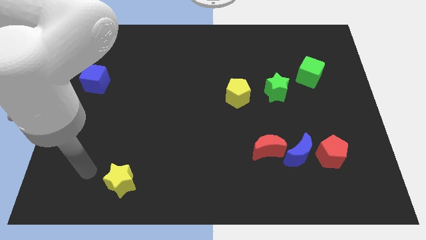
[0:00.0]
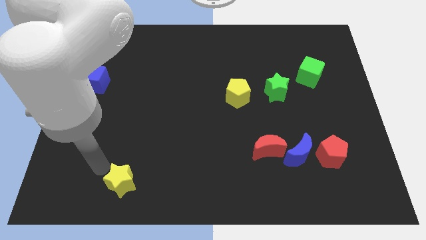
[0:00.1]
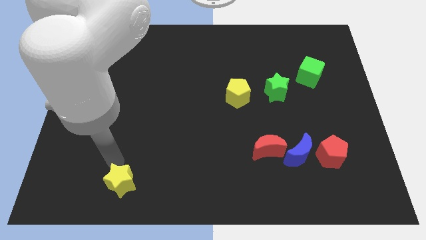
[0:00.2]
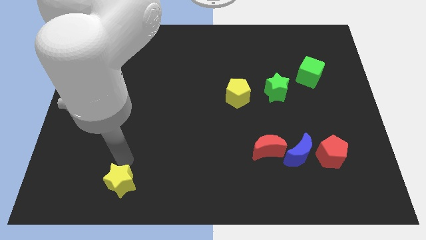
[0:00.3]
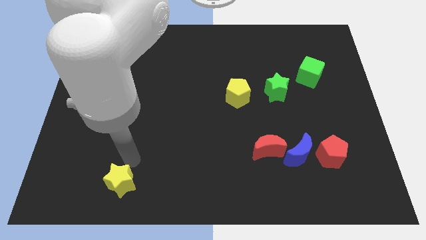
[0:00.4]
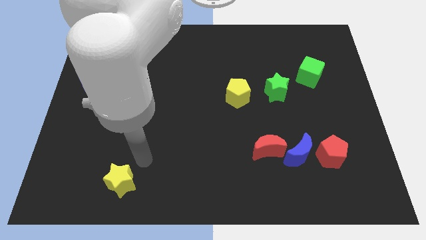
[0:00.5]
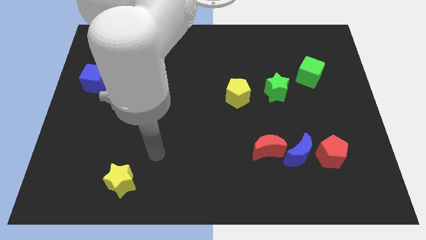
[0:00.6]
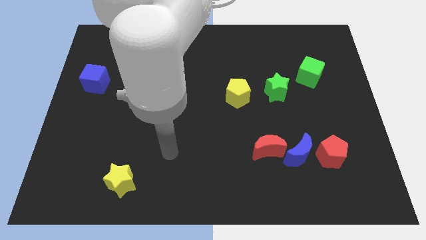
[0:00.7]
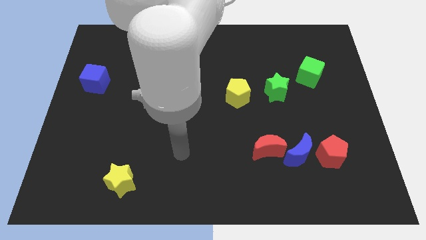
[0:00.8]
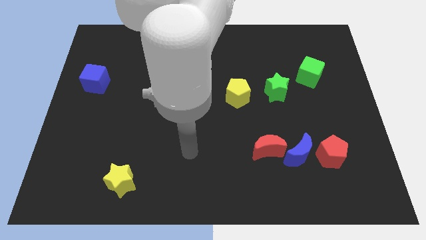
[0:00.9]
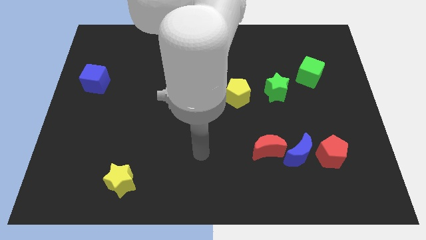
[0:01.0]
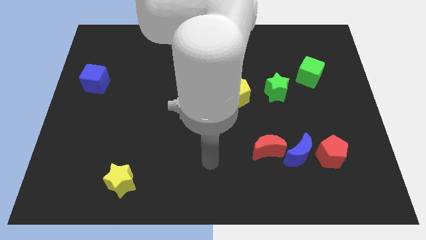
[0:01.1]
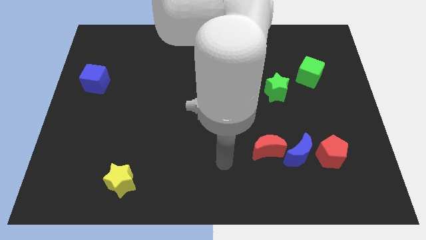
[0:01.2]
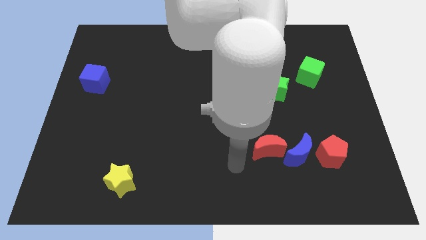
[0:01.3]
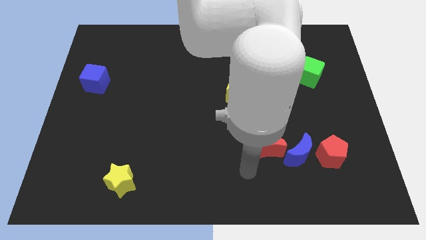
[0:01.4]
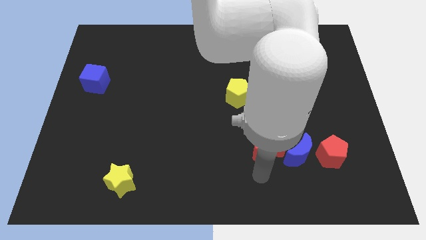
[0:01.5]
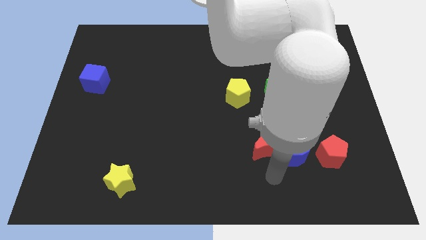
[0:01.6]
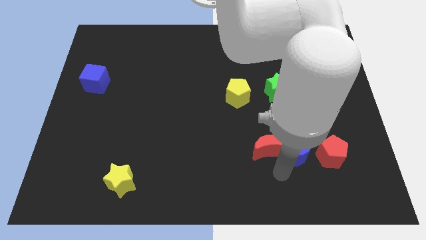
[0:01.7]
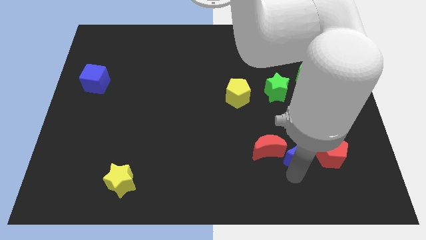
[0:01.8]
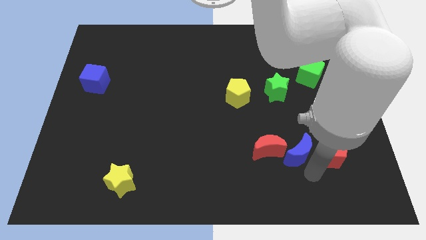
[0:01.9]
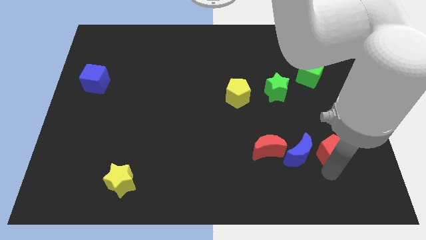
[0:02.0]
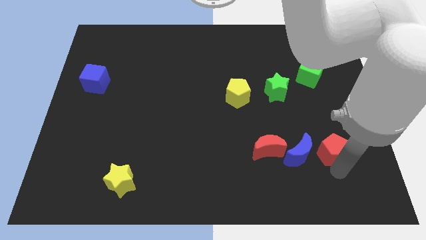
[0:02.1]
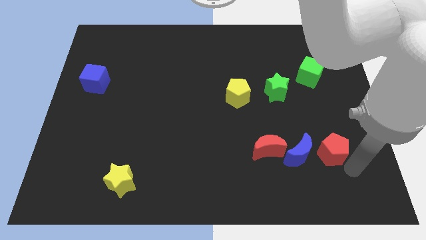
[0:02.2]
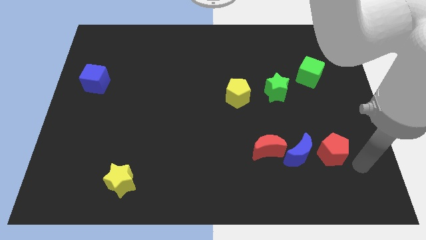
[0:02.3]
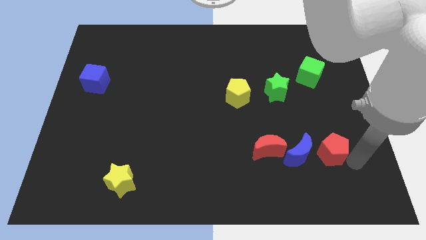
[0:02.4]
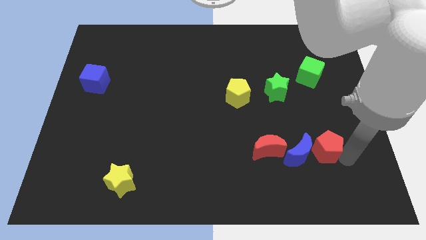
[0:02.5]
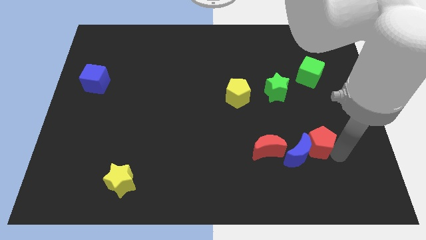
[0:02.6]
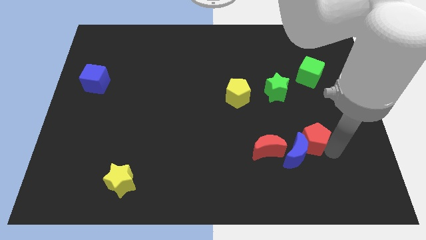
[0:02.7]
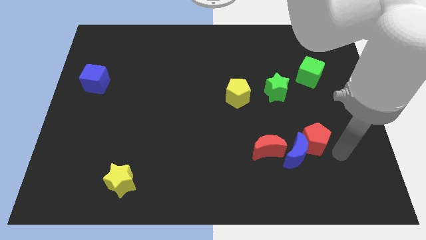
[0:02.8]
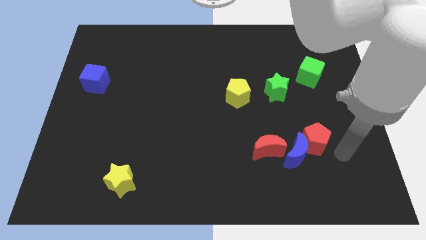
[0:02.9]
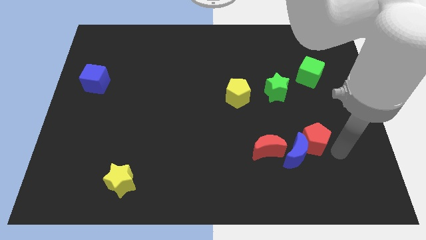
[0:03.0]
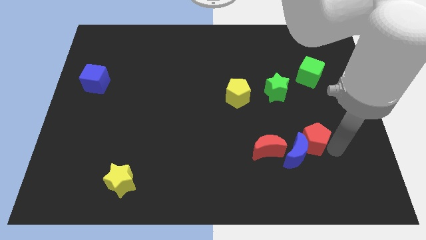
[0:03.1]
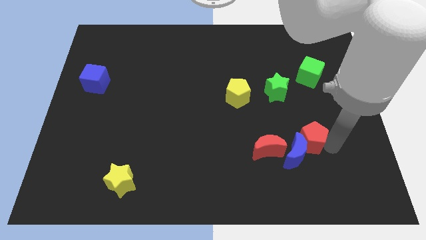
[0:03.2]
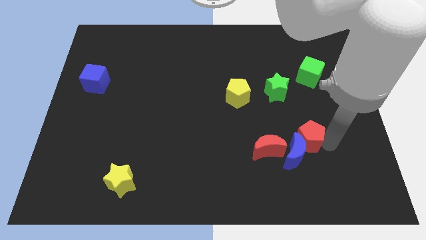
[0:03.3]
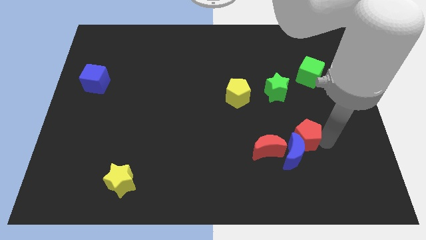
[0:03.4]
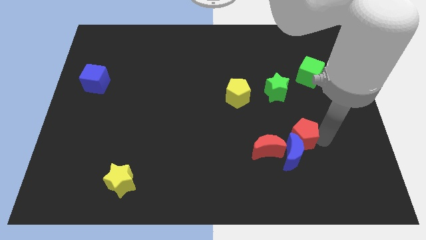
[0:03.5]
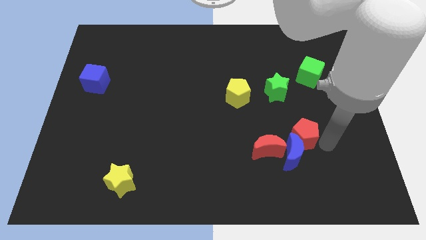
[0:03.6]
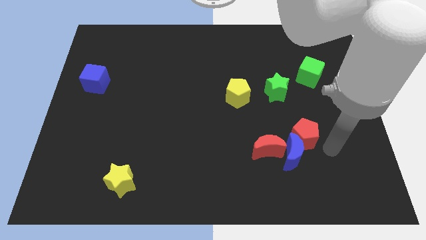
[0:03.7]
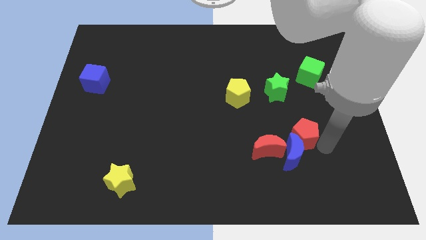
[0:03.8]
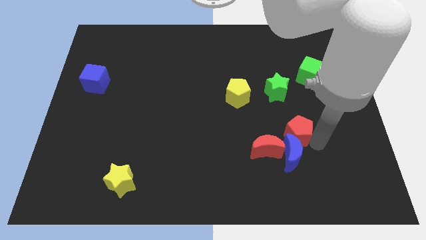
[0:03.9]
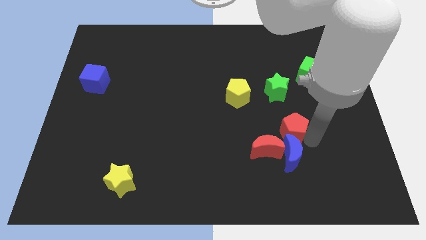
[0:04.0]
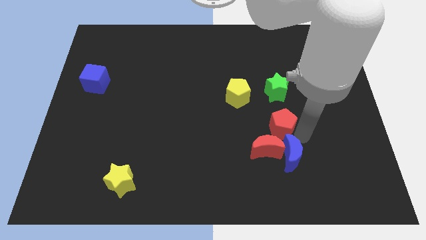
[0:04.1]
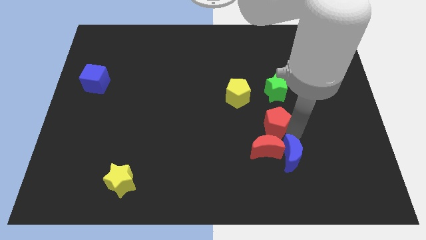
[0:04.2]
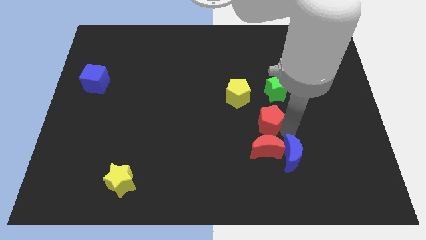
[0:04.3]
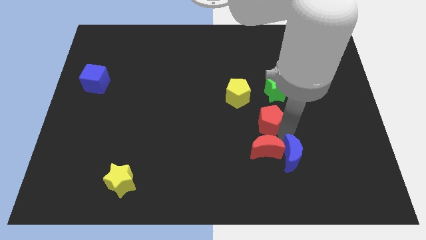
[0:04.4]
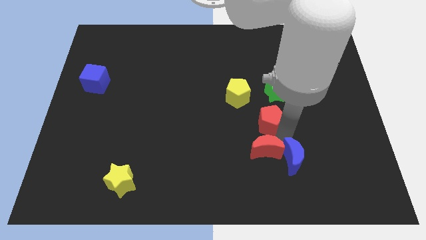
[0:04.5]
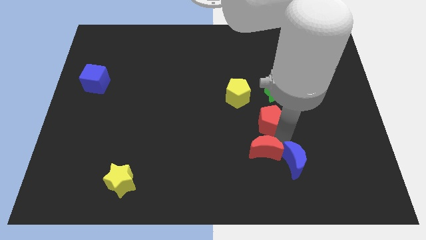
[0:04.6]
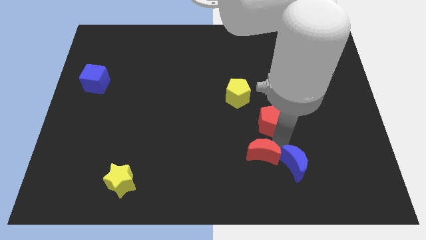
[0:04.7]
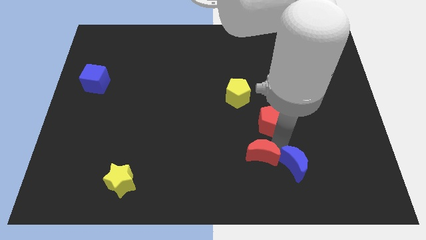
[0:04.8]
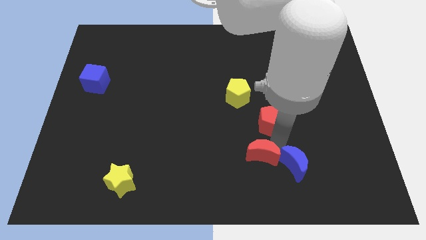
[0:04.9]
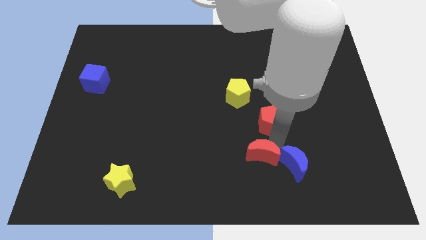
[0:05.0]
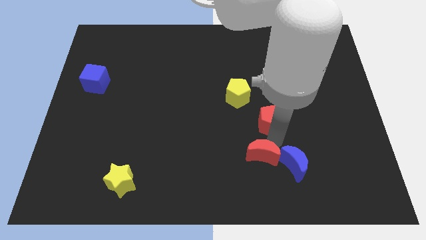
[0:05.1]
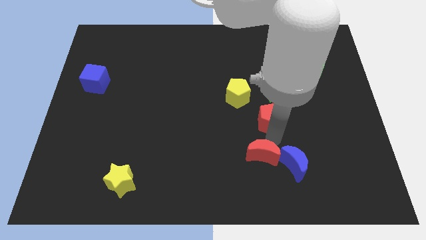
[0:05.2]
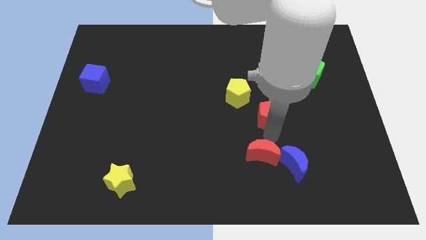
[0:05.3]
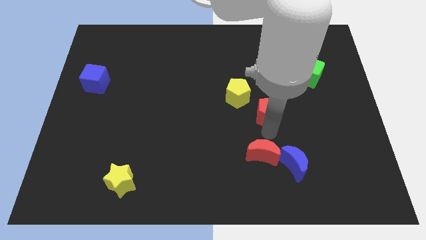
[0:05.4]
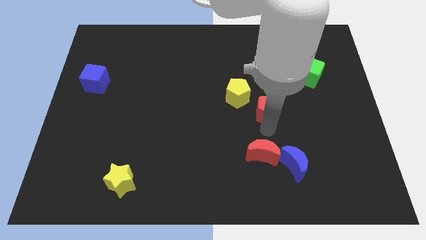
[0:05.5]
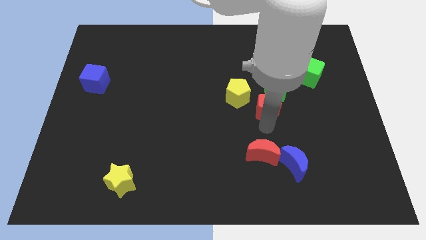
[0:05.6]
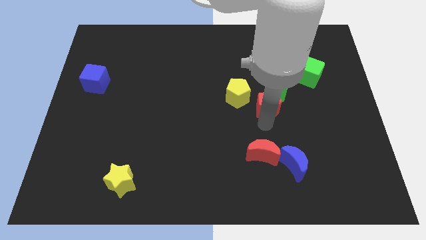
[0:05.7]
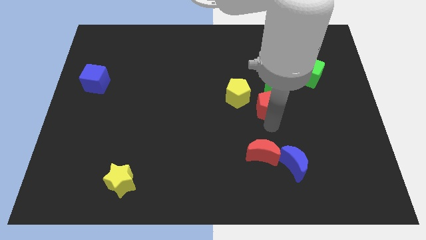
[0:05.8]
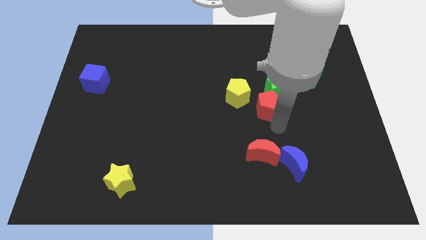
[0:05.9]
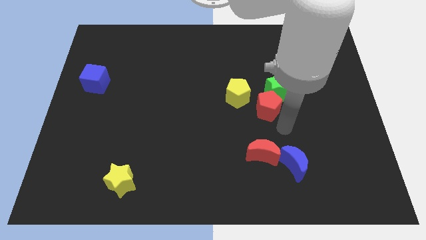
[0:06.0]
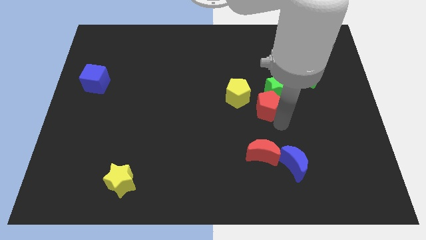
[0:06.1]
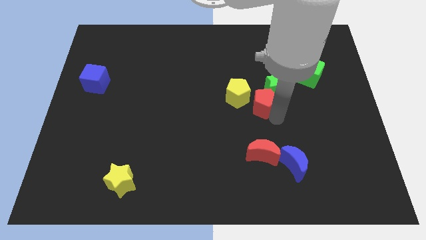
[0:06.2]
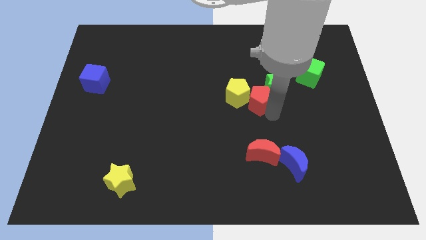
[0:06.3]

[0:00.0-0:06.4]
push the red pentagon up and left diagonally

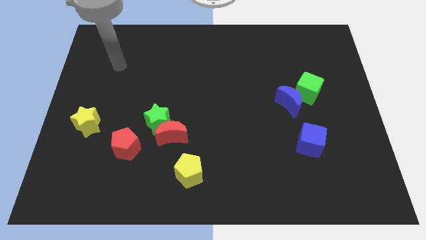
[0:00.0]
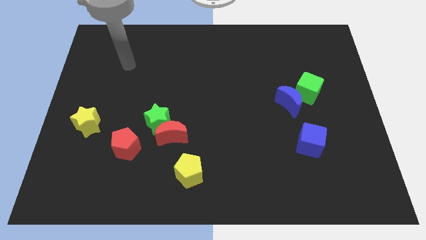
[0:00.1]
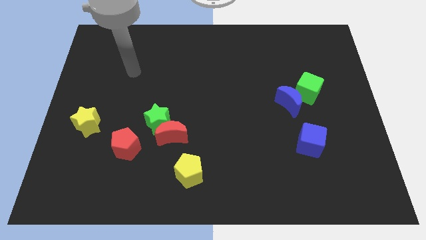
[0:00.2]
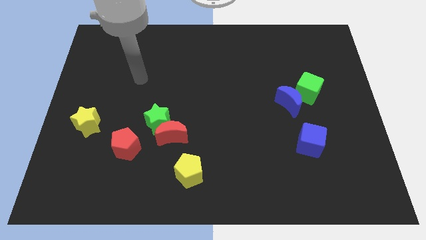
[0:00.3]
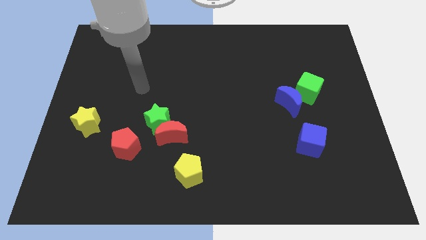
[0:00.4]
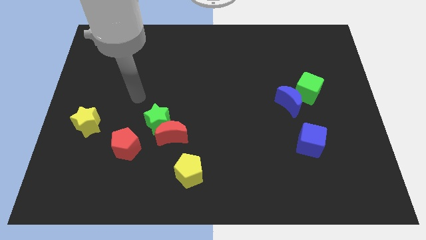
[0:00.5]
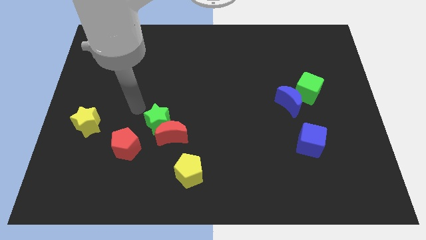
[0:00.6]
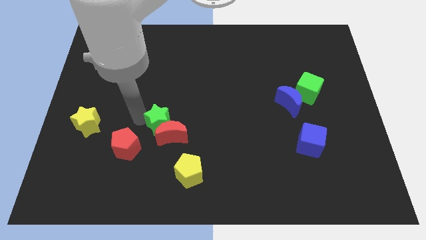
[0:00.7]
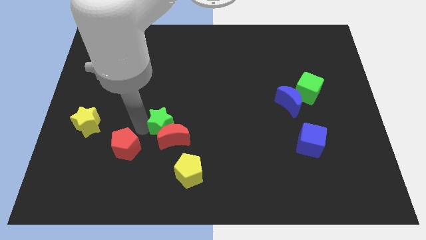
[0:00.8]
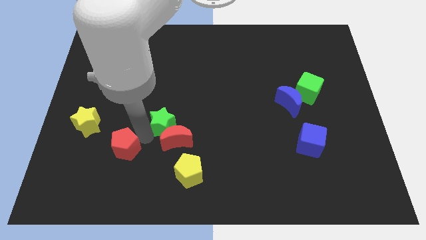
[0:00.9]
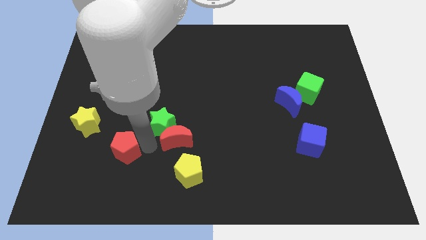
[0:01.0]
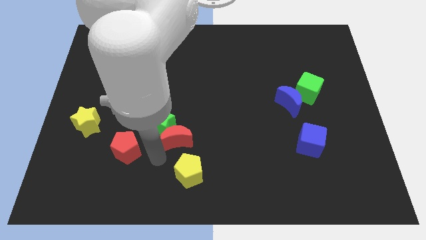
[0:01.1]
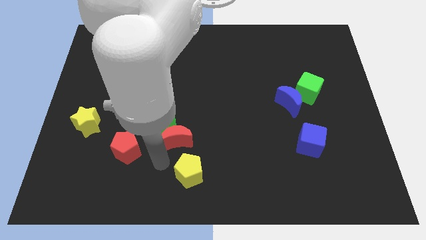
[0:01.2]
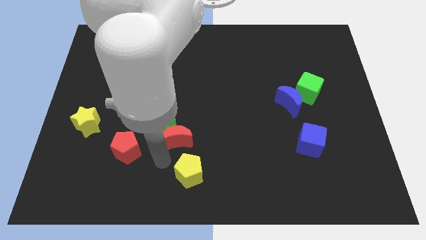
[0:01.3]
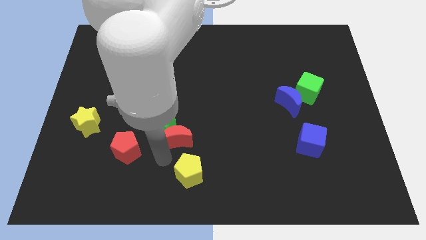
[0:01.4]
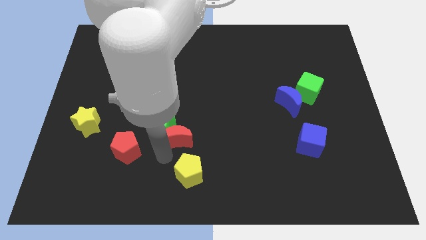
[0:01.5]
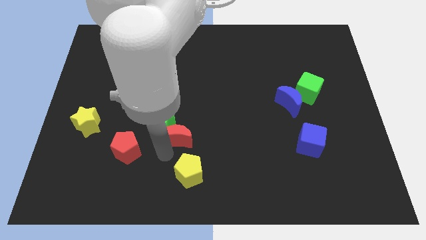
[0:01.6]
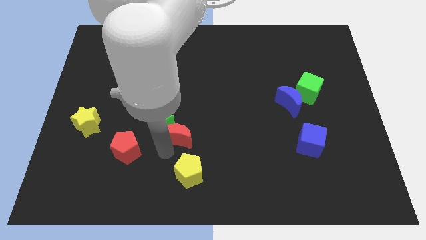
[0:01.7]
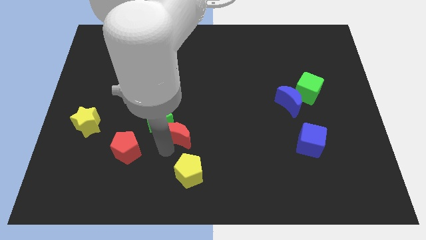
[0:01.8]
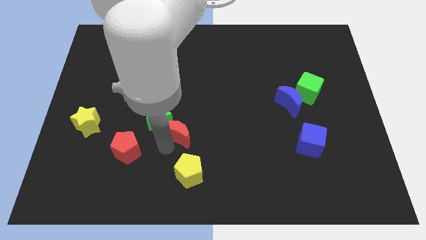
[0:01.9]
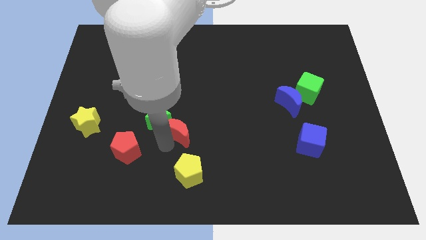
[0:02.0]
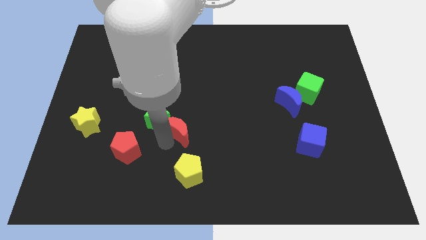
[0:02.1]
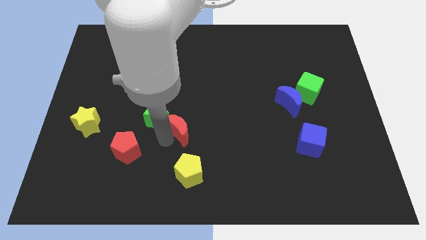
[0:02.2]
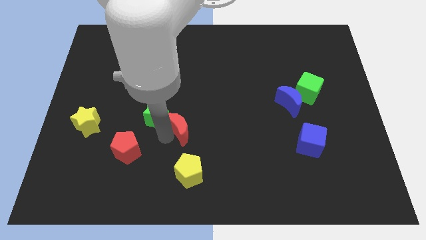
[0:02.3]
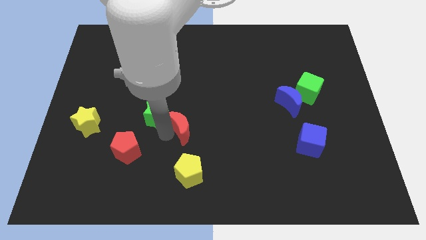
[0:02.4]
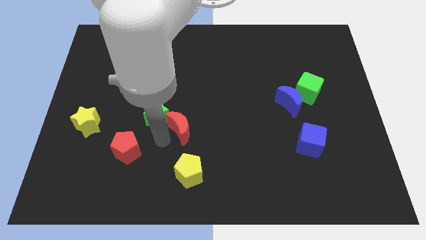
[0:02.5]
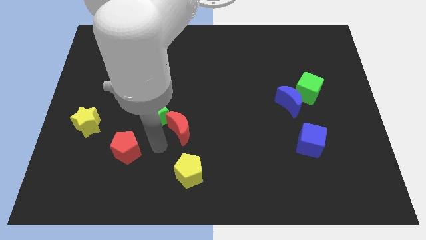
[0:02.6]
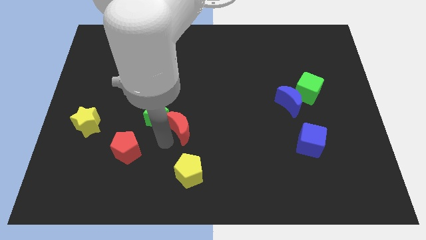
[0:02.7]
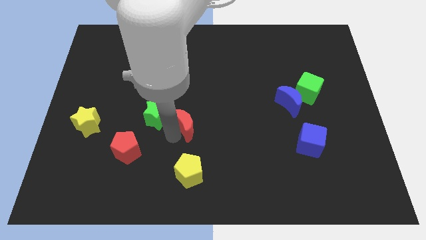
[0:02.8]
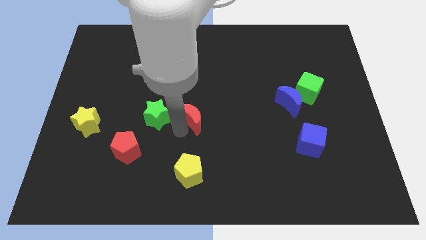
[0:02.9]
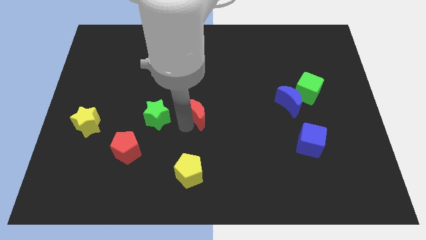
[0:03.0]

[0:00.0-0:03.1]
push the red moon upwards and right a little
